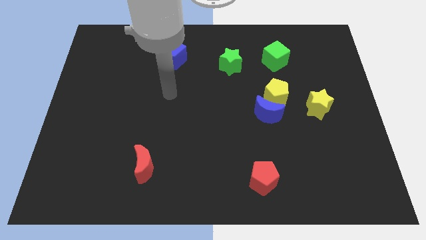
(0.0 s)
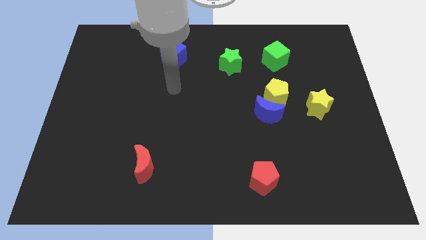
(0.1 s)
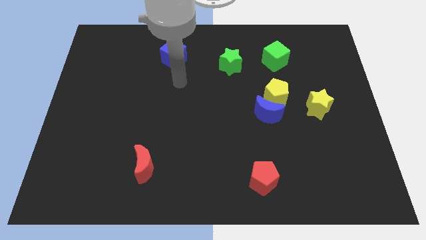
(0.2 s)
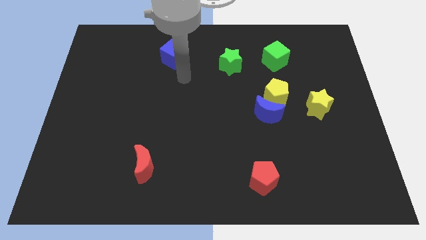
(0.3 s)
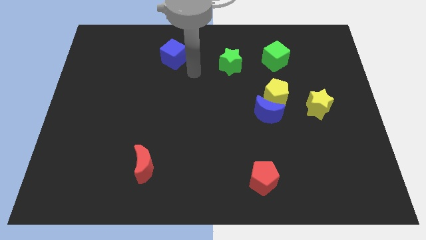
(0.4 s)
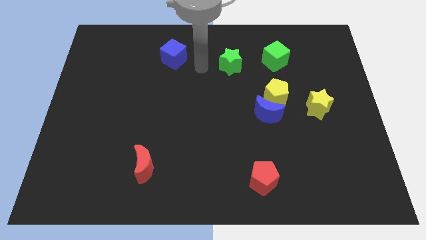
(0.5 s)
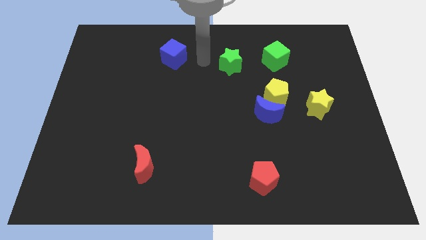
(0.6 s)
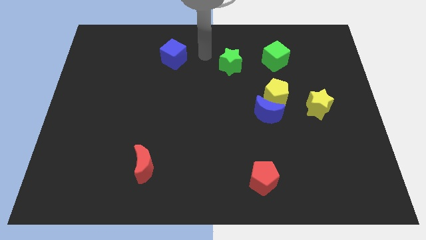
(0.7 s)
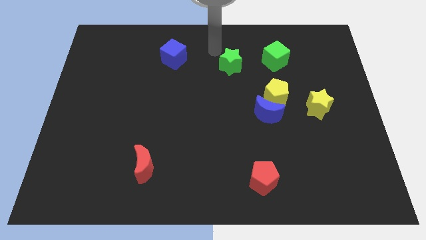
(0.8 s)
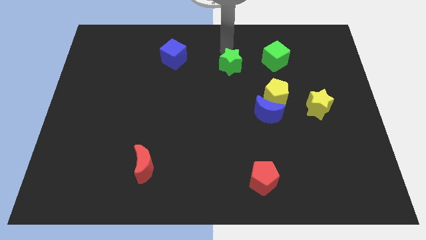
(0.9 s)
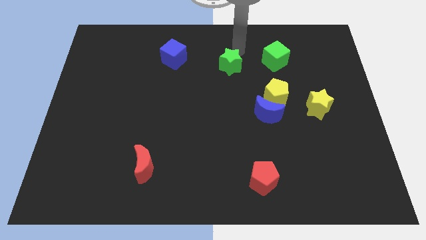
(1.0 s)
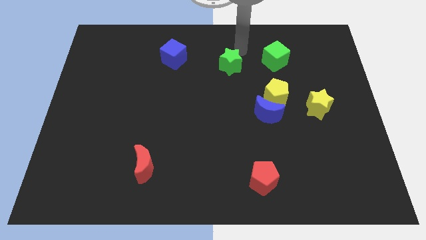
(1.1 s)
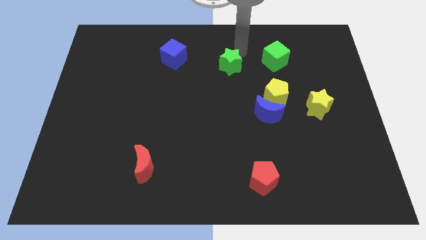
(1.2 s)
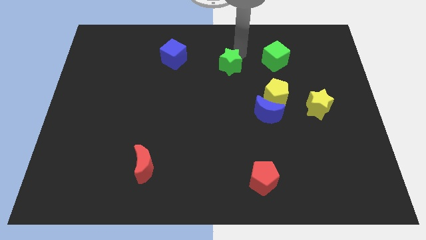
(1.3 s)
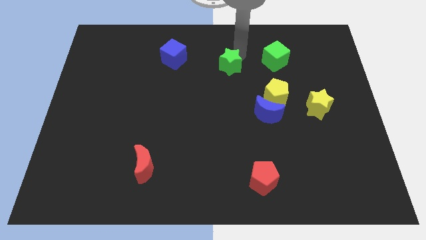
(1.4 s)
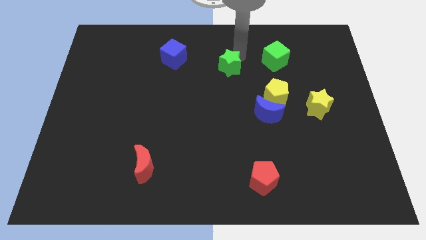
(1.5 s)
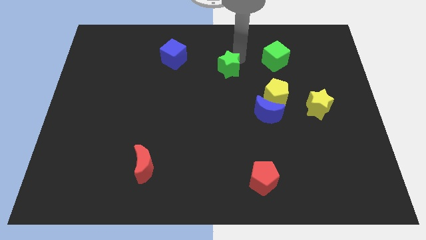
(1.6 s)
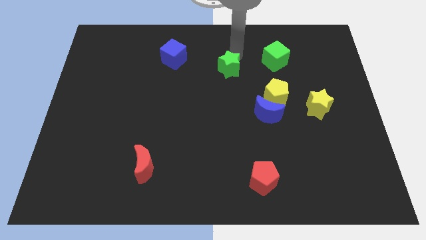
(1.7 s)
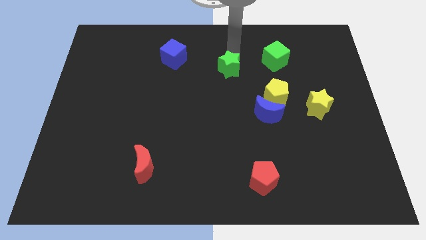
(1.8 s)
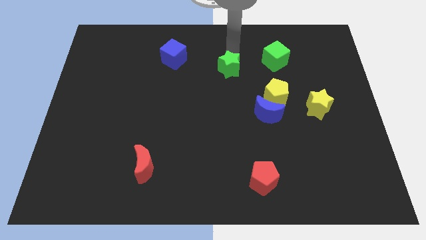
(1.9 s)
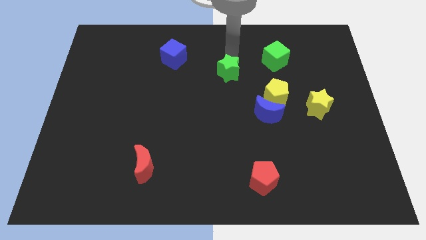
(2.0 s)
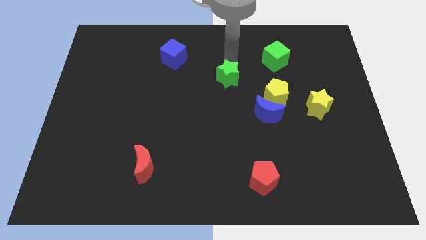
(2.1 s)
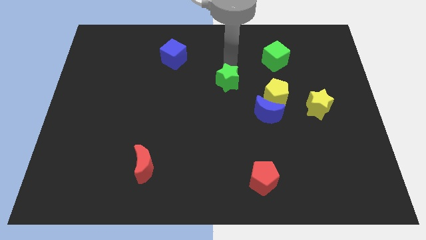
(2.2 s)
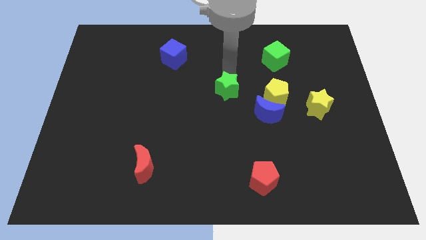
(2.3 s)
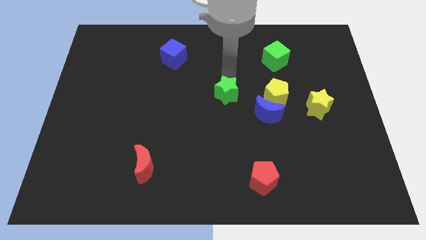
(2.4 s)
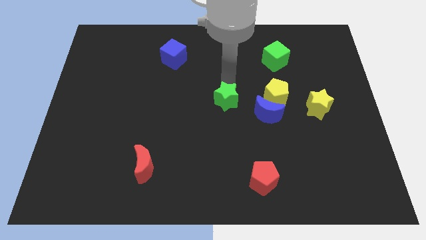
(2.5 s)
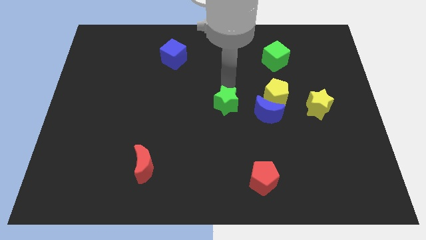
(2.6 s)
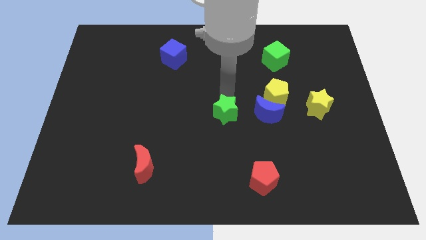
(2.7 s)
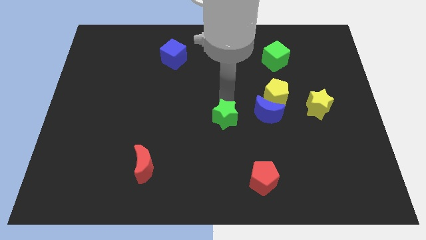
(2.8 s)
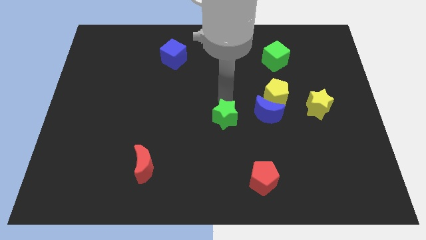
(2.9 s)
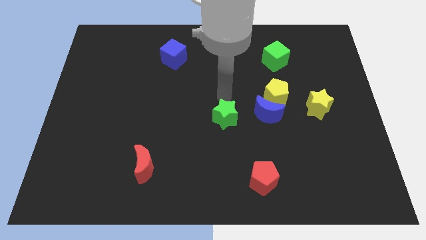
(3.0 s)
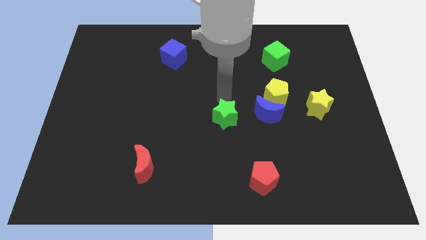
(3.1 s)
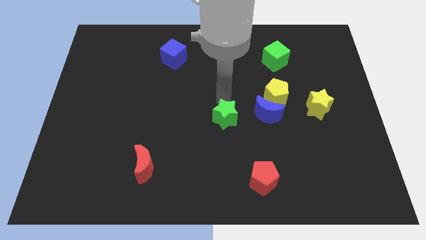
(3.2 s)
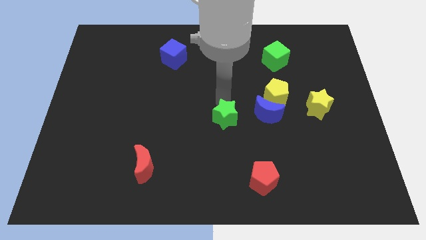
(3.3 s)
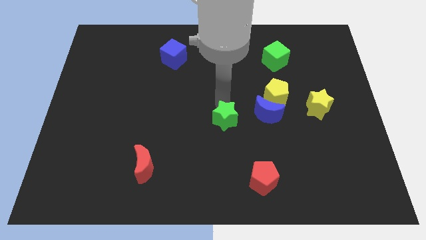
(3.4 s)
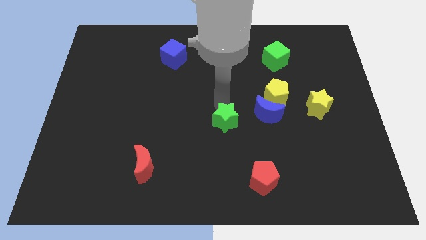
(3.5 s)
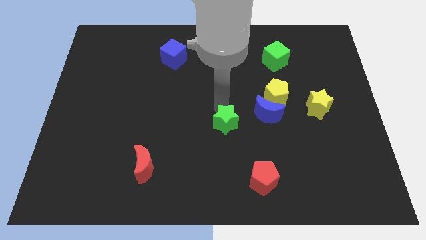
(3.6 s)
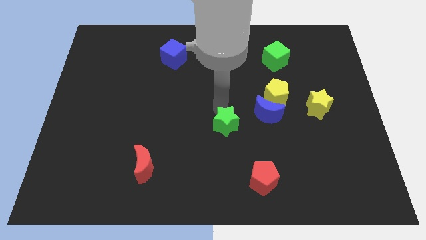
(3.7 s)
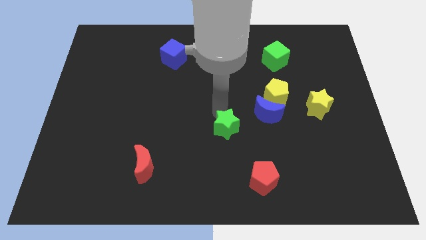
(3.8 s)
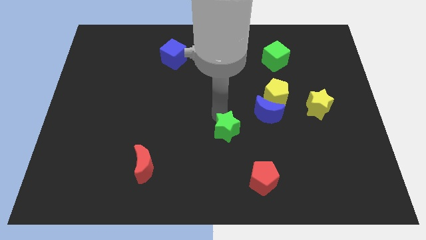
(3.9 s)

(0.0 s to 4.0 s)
slide the green star downwards

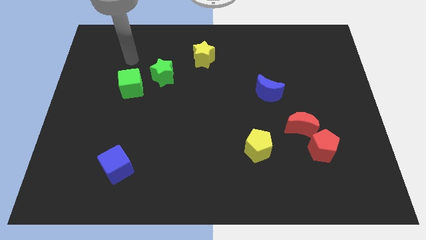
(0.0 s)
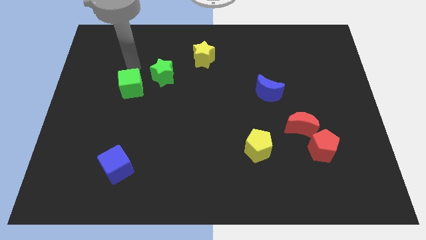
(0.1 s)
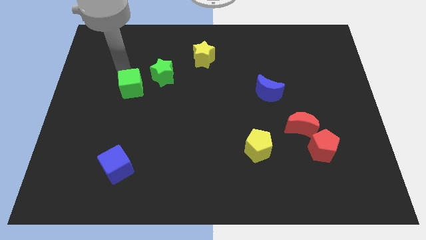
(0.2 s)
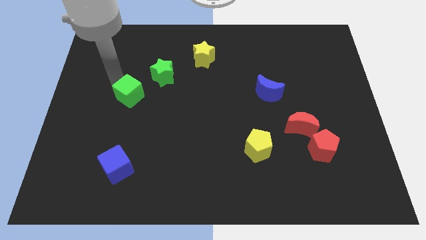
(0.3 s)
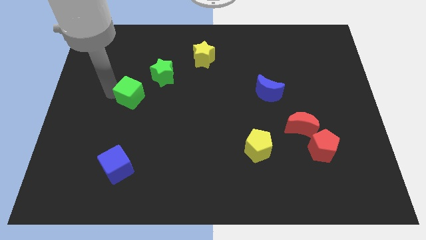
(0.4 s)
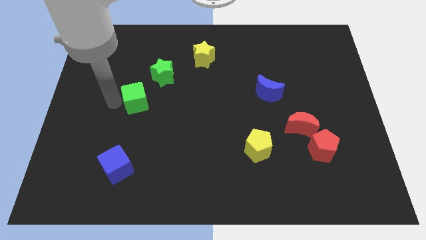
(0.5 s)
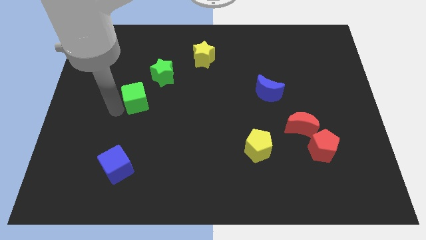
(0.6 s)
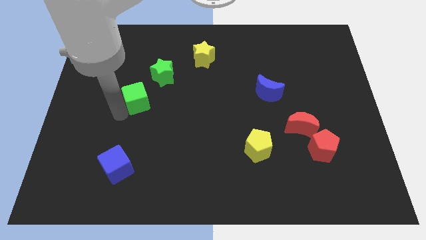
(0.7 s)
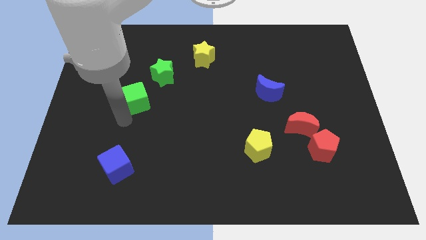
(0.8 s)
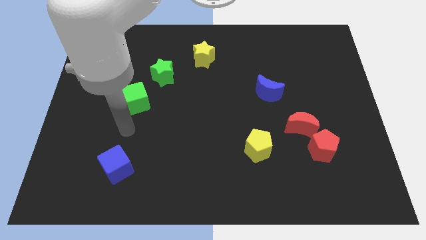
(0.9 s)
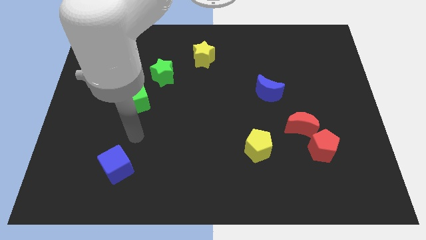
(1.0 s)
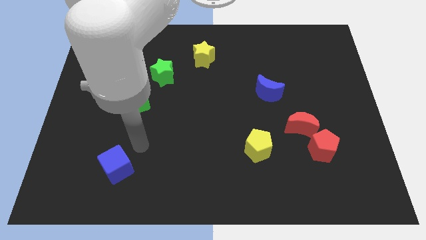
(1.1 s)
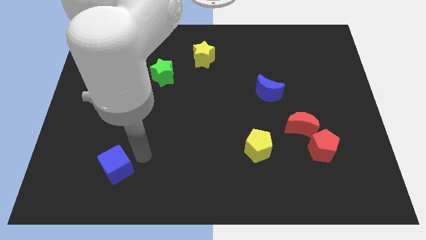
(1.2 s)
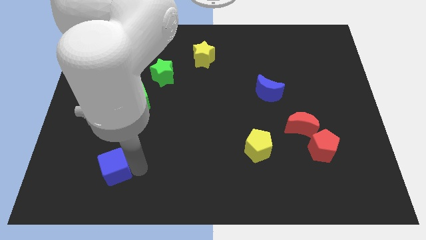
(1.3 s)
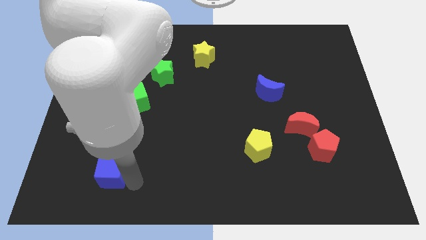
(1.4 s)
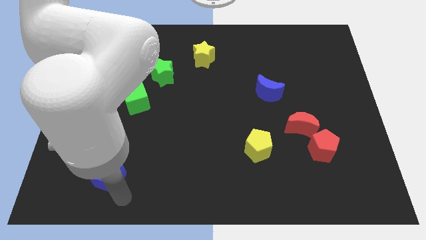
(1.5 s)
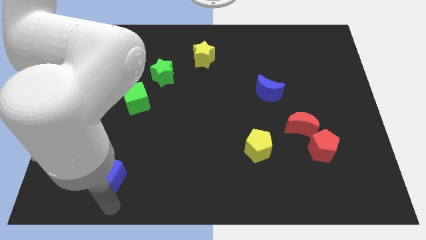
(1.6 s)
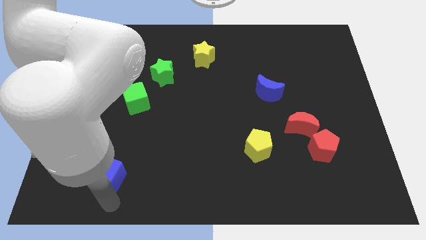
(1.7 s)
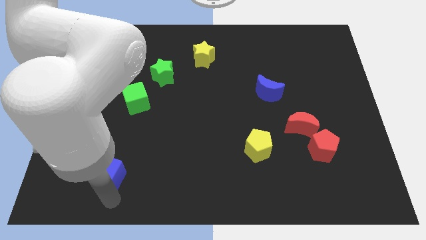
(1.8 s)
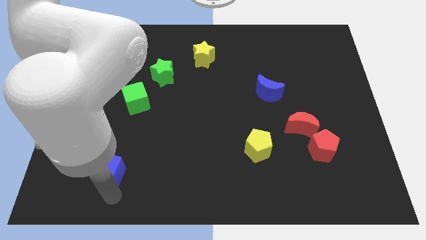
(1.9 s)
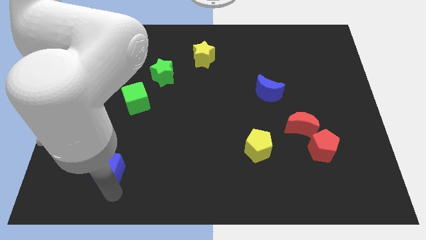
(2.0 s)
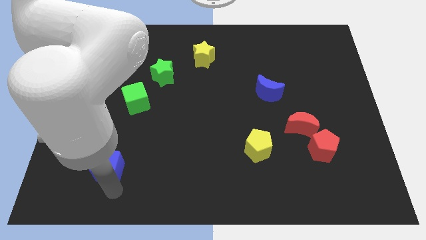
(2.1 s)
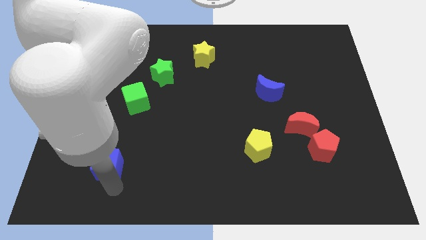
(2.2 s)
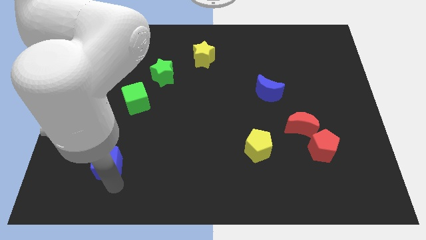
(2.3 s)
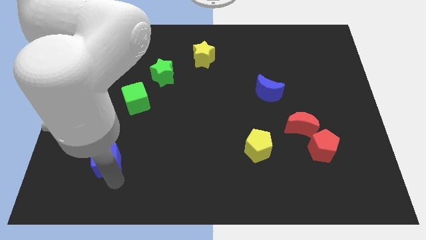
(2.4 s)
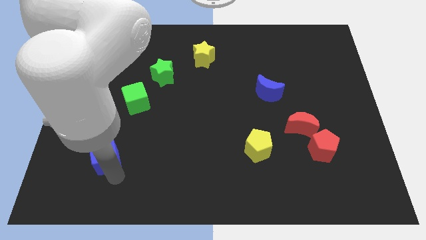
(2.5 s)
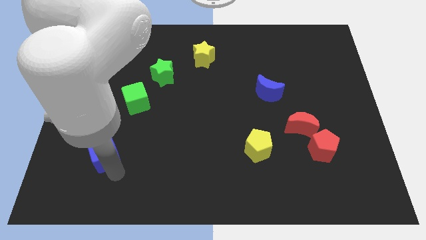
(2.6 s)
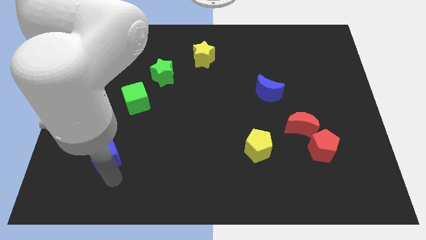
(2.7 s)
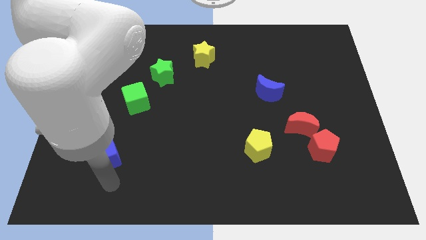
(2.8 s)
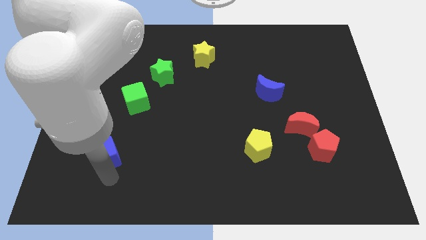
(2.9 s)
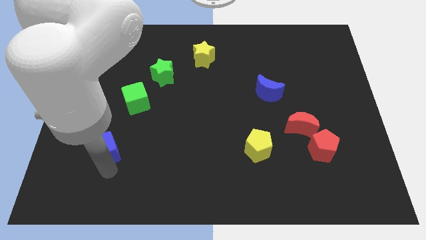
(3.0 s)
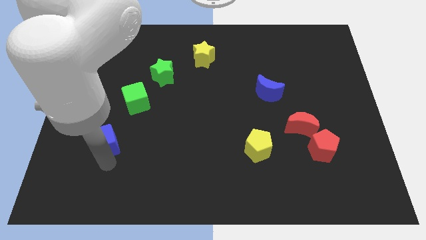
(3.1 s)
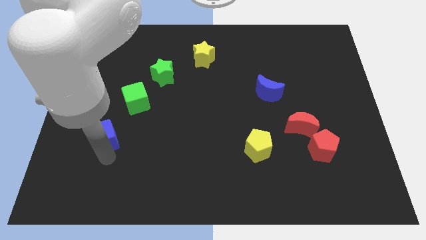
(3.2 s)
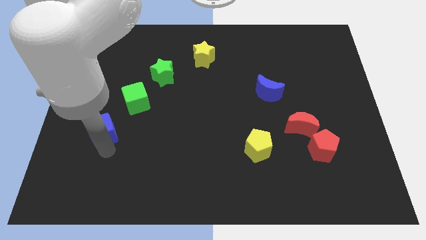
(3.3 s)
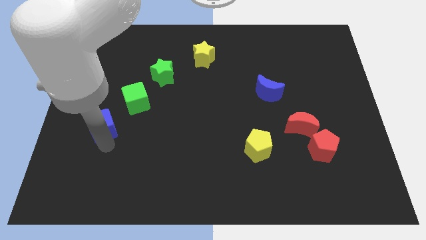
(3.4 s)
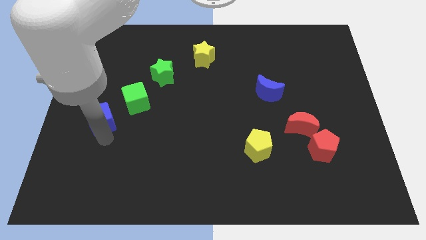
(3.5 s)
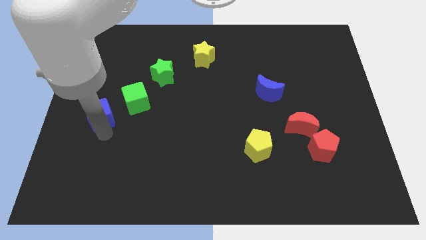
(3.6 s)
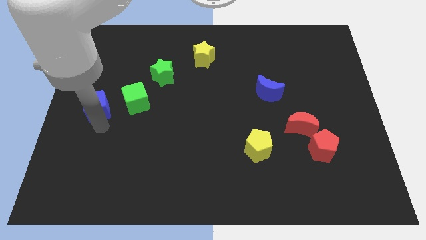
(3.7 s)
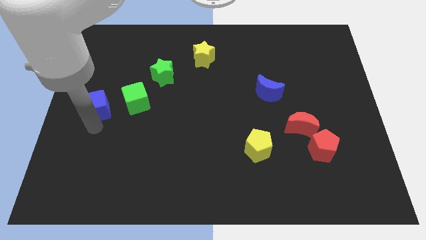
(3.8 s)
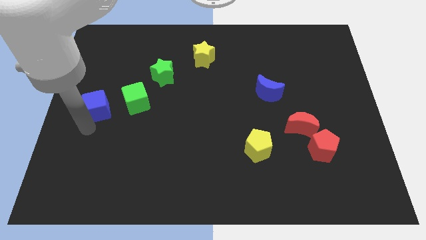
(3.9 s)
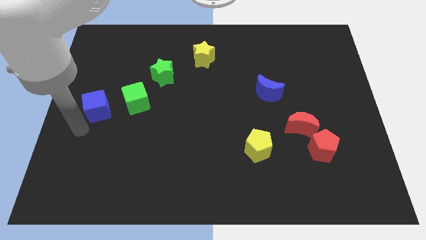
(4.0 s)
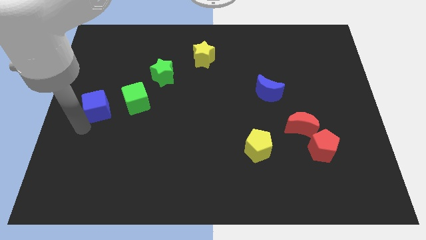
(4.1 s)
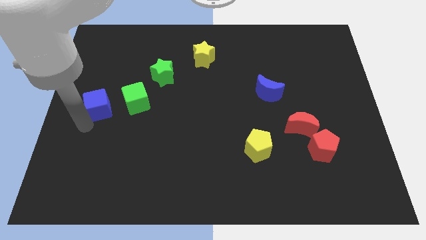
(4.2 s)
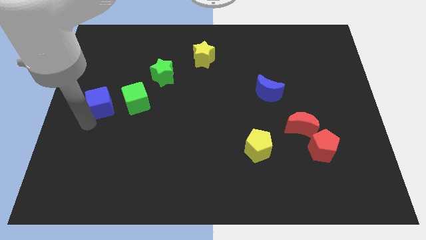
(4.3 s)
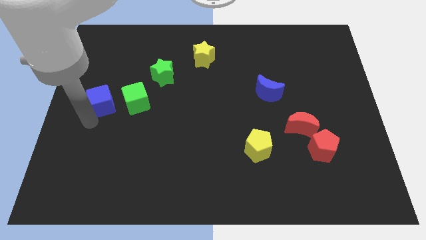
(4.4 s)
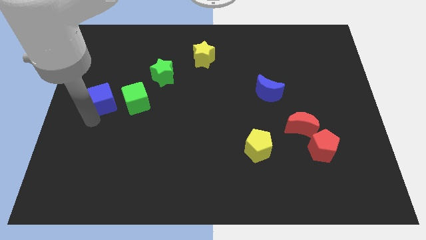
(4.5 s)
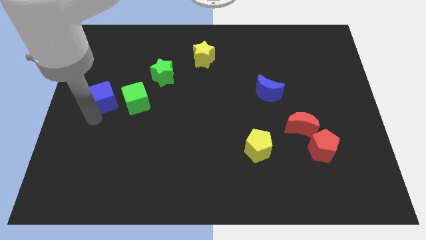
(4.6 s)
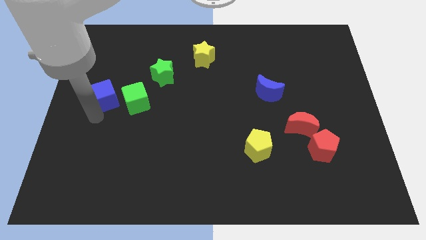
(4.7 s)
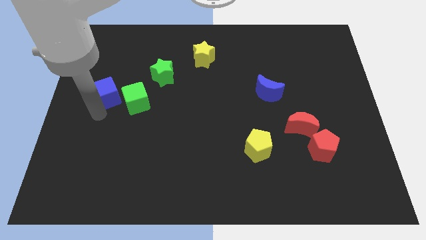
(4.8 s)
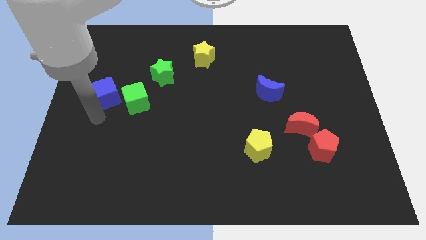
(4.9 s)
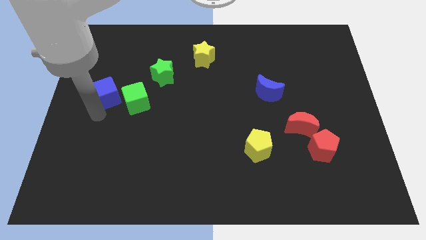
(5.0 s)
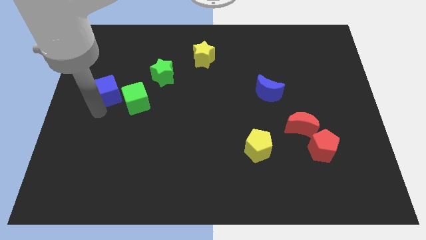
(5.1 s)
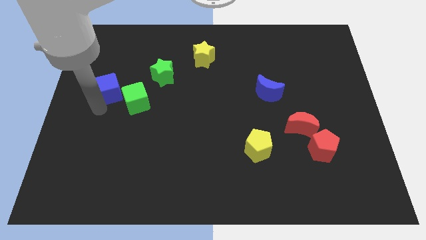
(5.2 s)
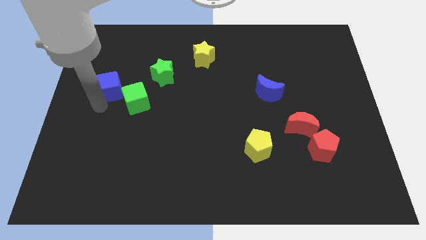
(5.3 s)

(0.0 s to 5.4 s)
push the blue cube up
